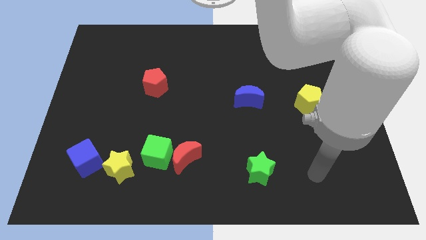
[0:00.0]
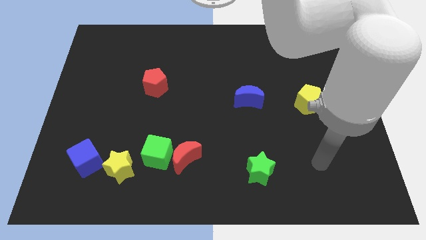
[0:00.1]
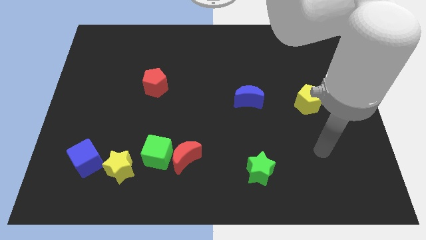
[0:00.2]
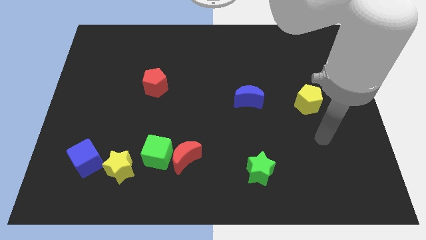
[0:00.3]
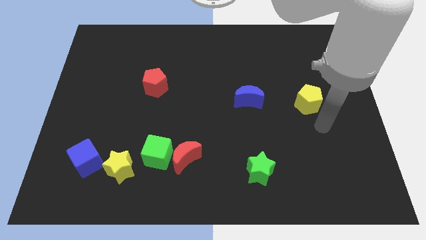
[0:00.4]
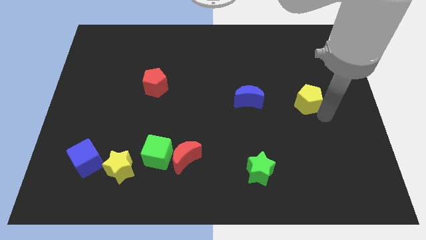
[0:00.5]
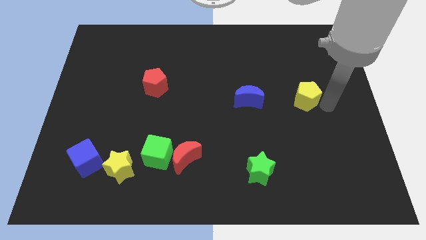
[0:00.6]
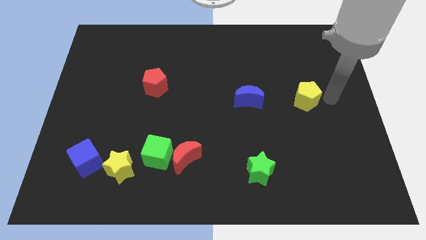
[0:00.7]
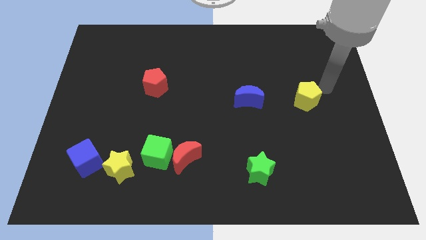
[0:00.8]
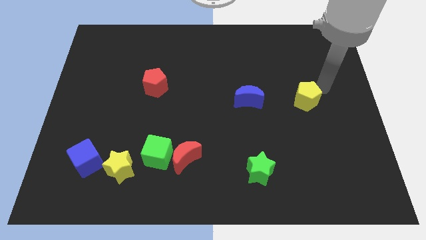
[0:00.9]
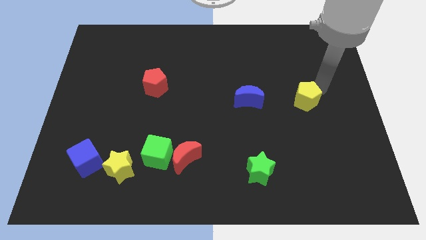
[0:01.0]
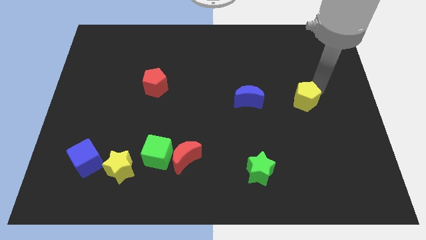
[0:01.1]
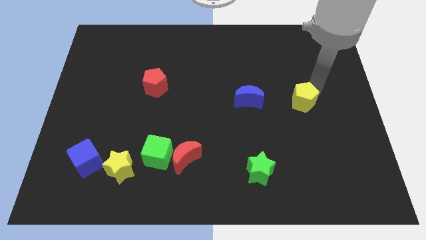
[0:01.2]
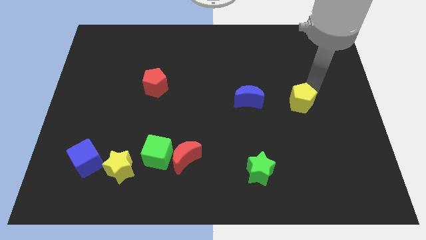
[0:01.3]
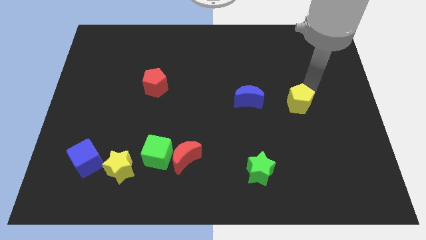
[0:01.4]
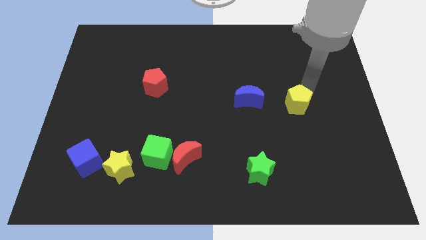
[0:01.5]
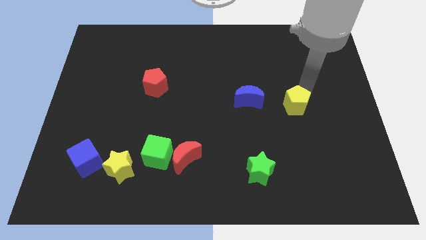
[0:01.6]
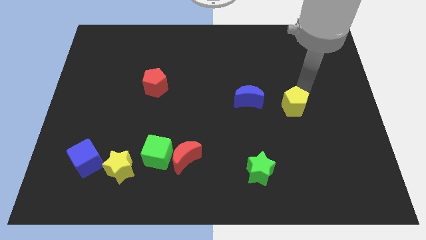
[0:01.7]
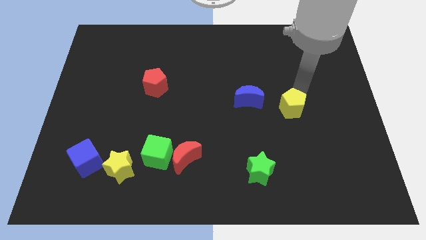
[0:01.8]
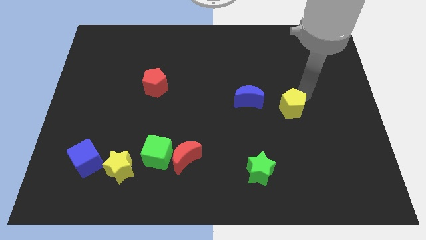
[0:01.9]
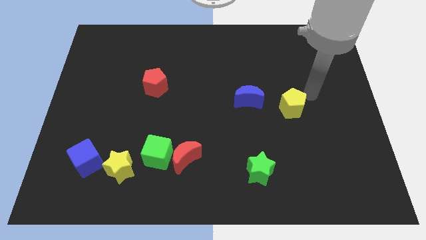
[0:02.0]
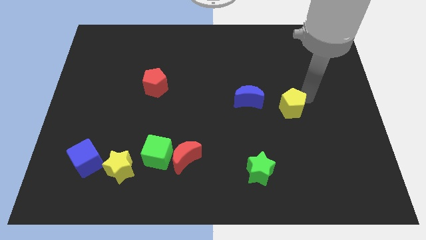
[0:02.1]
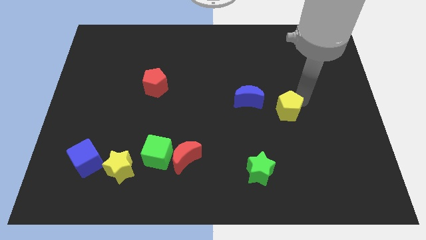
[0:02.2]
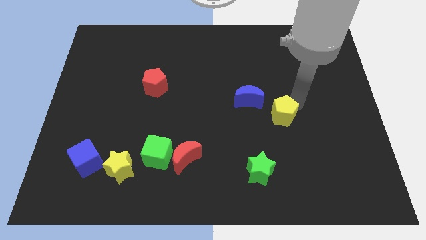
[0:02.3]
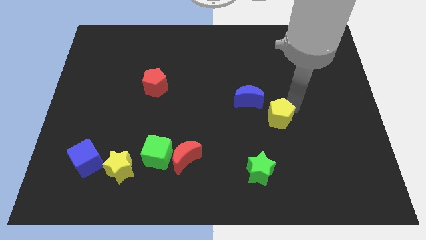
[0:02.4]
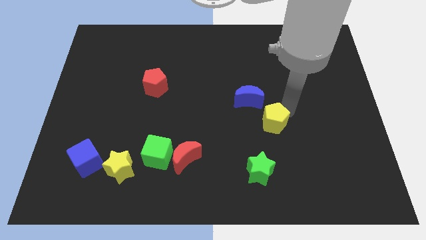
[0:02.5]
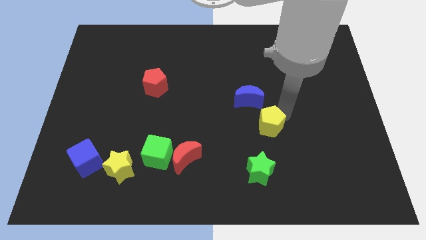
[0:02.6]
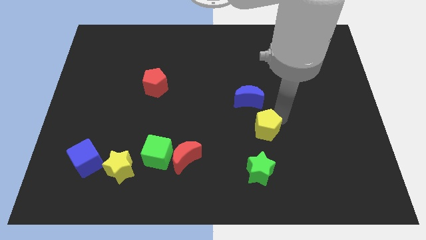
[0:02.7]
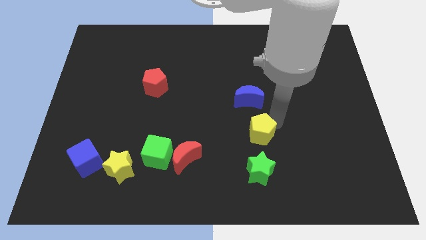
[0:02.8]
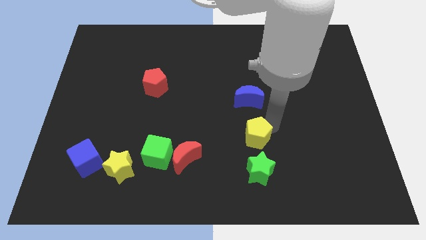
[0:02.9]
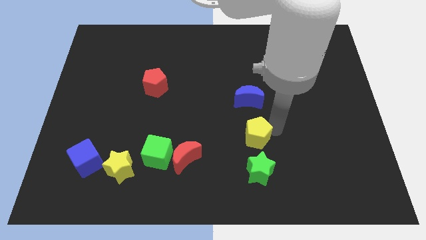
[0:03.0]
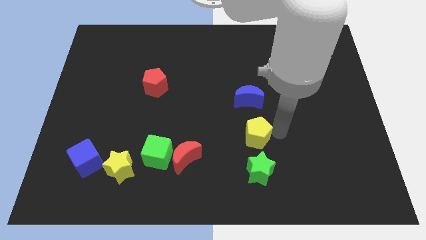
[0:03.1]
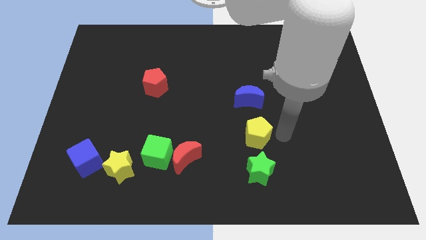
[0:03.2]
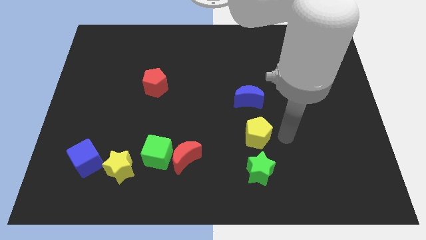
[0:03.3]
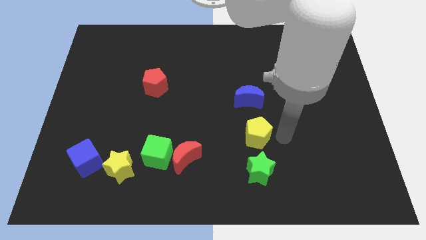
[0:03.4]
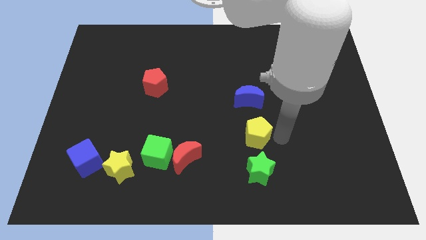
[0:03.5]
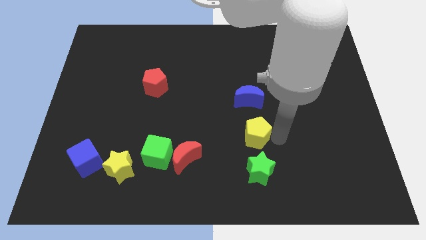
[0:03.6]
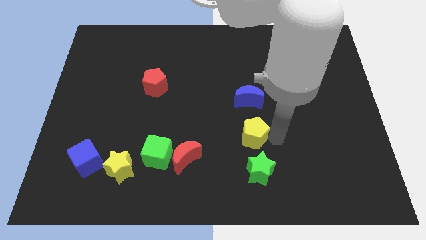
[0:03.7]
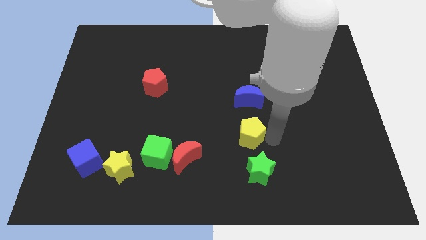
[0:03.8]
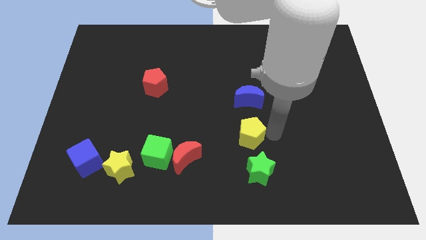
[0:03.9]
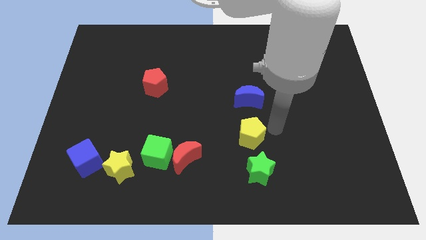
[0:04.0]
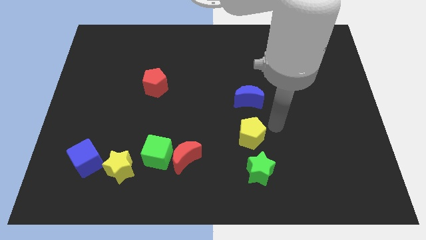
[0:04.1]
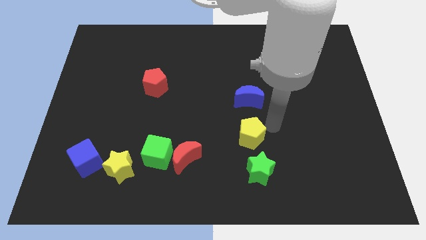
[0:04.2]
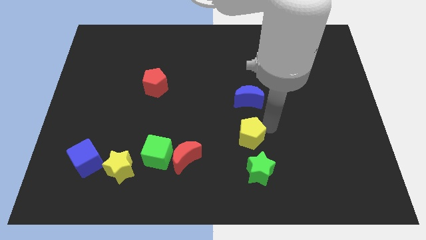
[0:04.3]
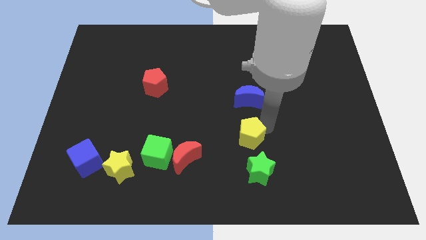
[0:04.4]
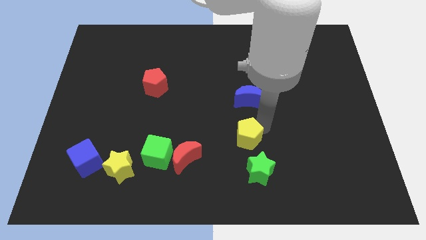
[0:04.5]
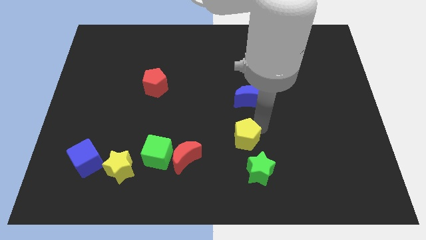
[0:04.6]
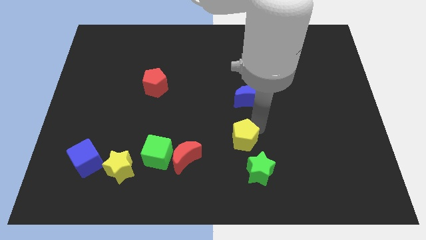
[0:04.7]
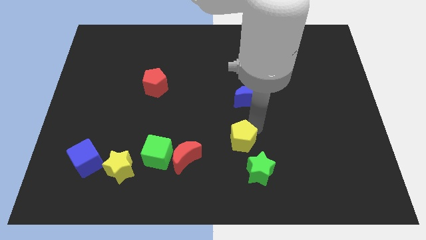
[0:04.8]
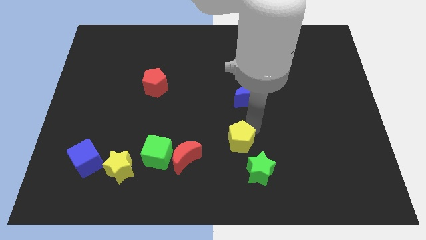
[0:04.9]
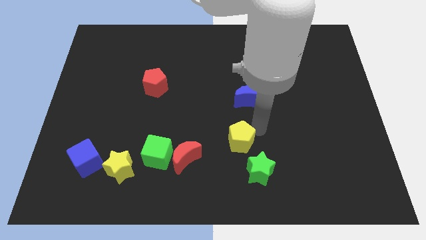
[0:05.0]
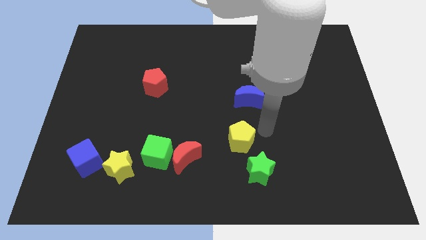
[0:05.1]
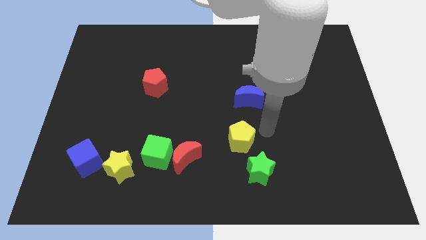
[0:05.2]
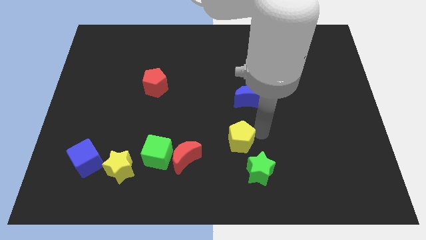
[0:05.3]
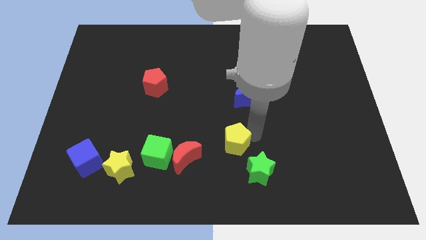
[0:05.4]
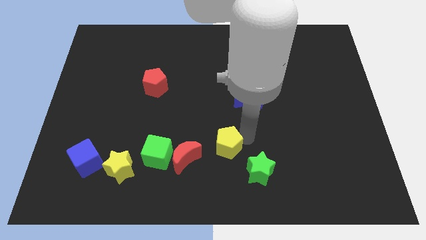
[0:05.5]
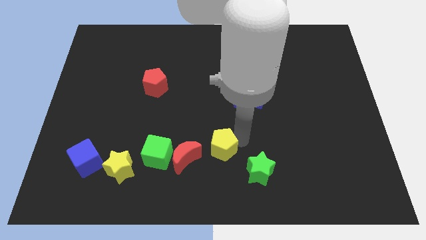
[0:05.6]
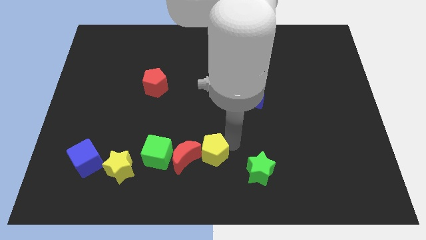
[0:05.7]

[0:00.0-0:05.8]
move the yellow pentagon to the red moon
